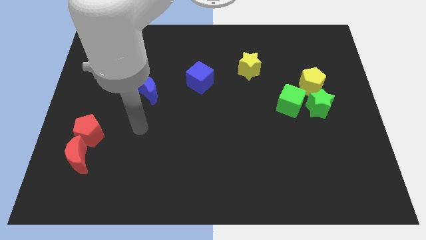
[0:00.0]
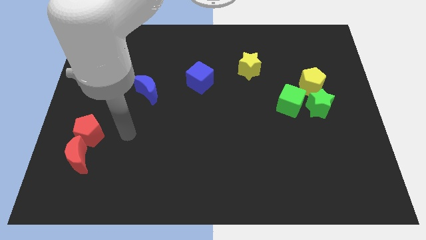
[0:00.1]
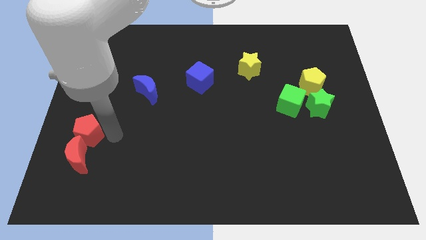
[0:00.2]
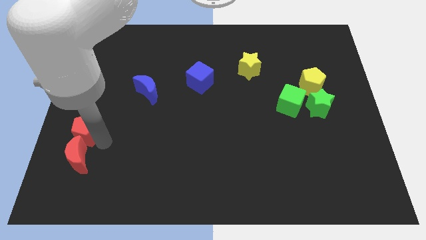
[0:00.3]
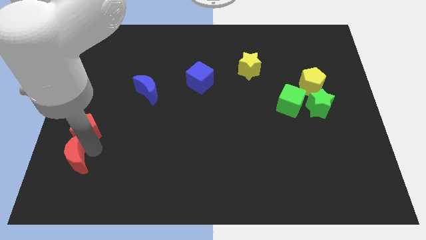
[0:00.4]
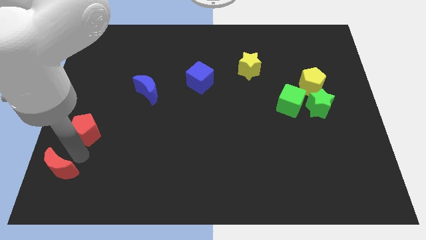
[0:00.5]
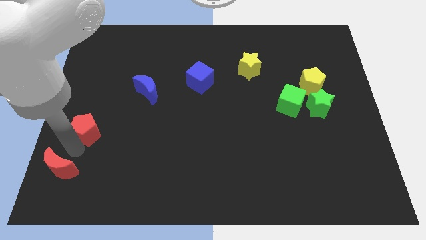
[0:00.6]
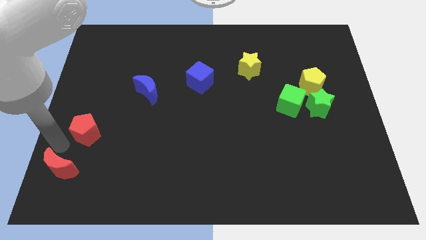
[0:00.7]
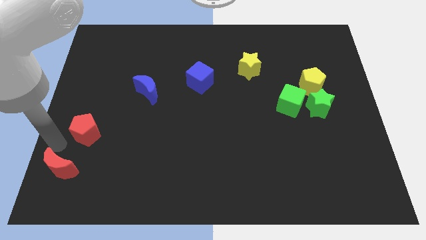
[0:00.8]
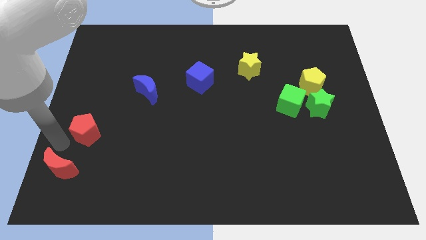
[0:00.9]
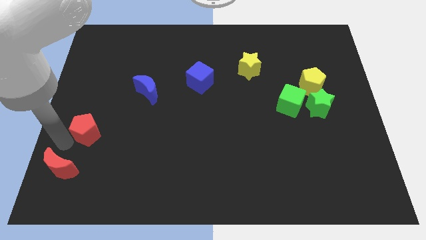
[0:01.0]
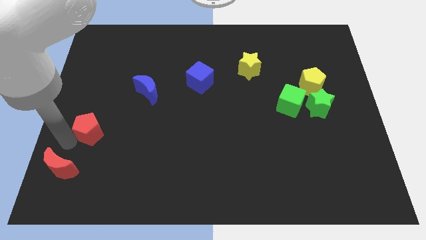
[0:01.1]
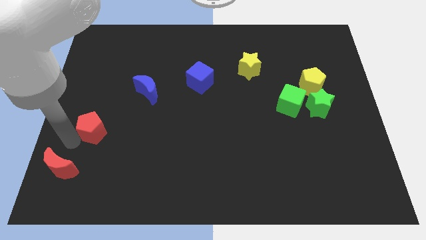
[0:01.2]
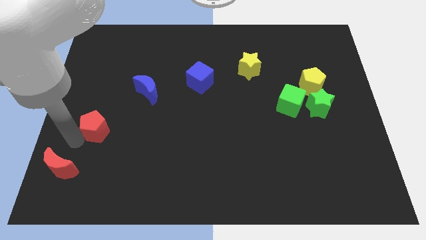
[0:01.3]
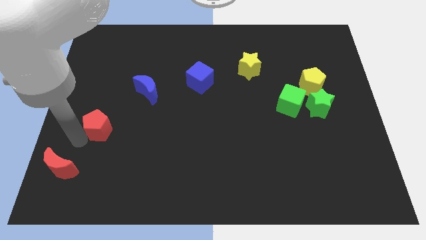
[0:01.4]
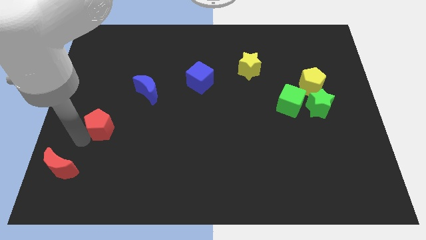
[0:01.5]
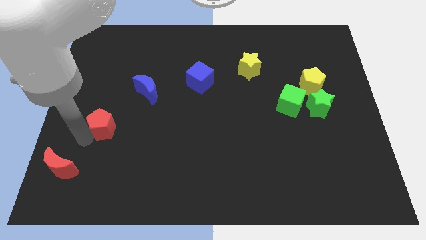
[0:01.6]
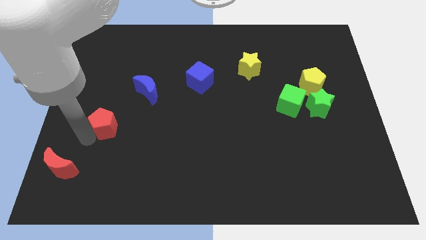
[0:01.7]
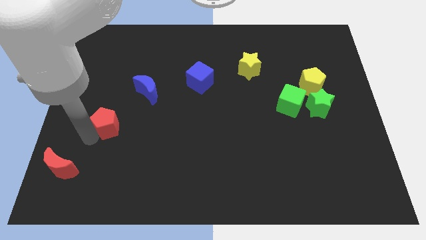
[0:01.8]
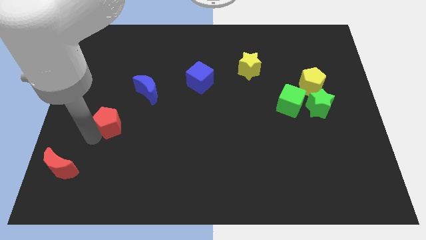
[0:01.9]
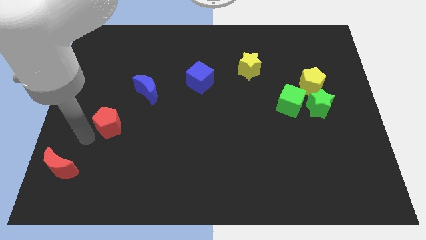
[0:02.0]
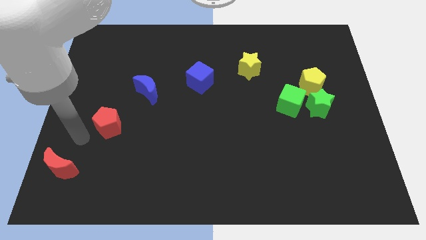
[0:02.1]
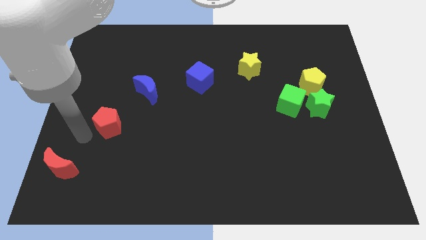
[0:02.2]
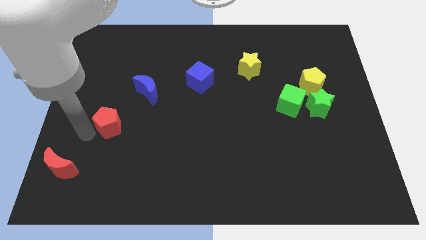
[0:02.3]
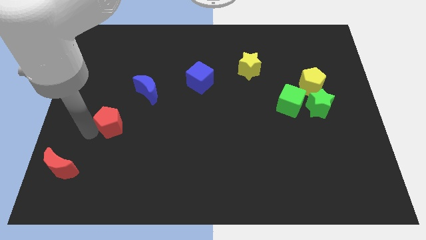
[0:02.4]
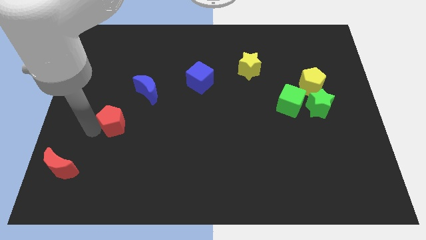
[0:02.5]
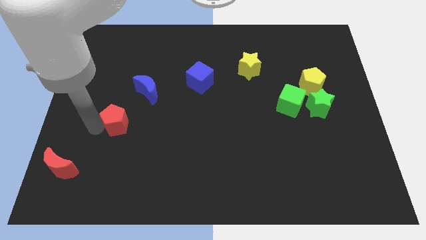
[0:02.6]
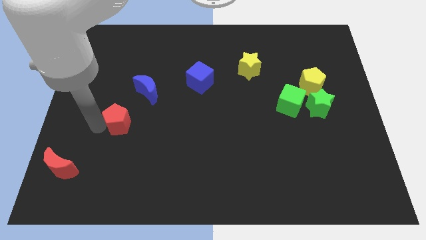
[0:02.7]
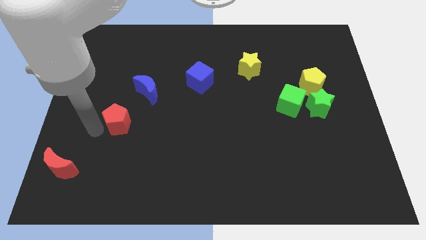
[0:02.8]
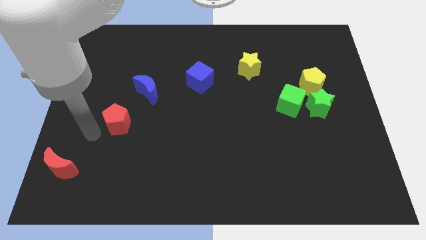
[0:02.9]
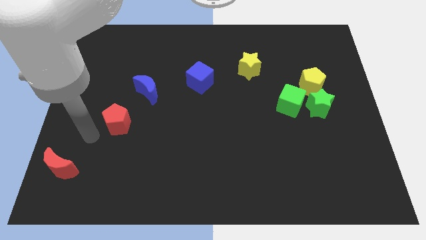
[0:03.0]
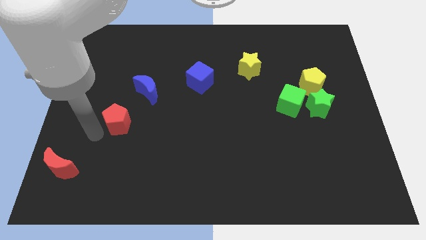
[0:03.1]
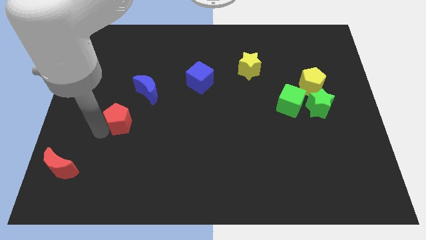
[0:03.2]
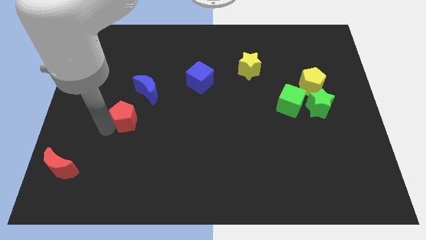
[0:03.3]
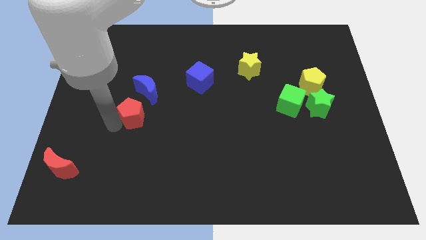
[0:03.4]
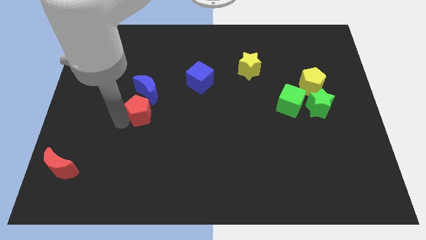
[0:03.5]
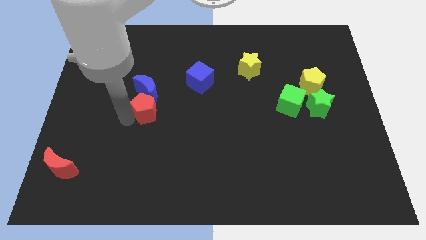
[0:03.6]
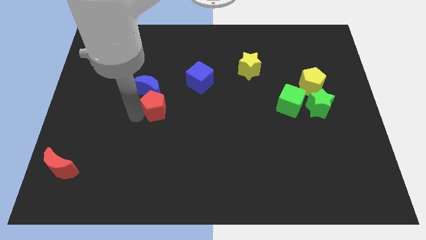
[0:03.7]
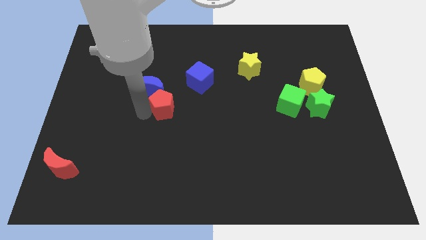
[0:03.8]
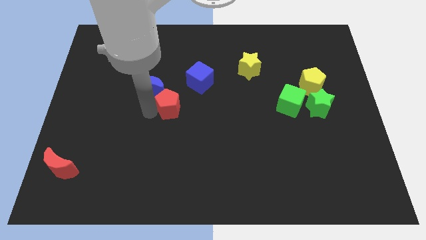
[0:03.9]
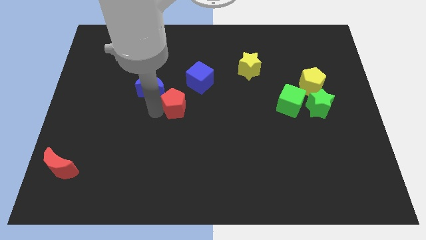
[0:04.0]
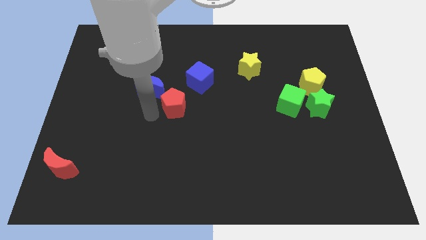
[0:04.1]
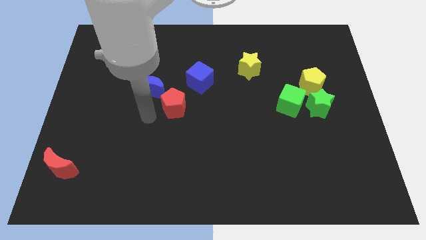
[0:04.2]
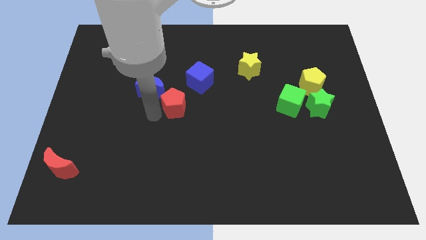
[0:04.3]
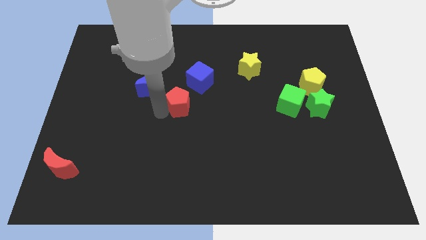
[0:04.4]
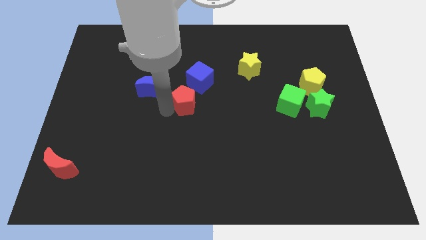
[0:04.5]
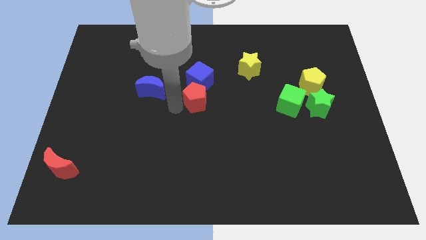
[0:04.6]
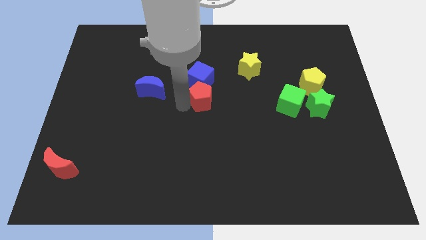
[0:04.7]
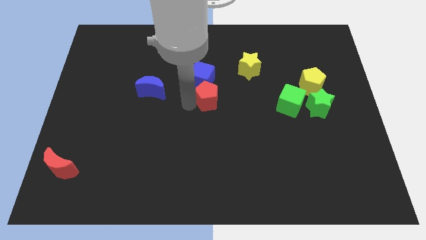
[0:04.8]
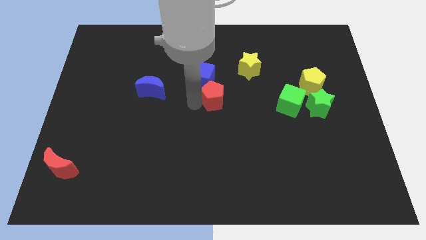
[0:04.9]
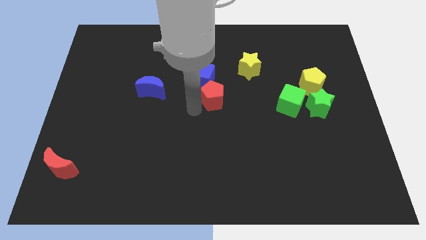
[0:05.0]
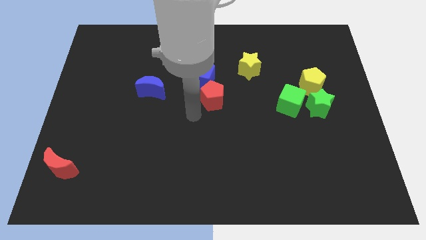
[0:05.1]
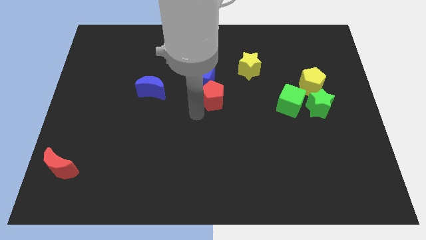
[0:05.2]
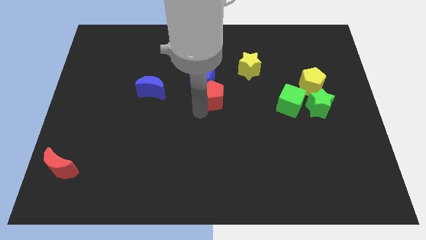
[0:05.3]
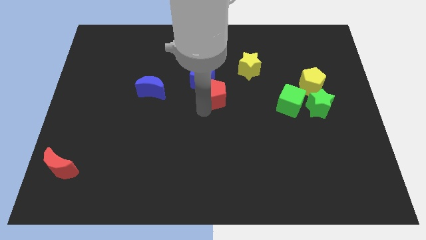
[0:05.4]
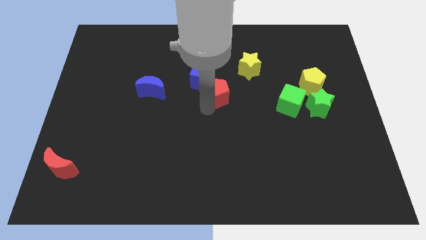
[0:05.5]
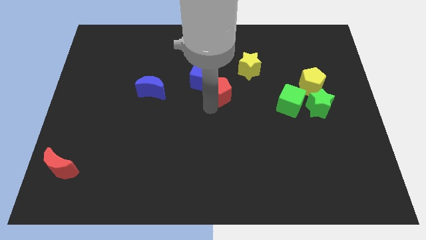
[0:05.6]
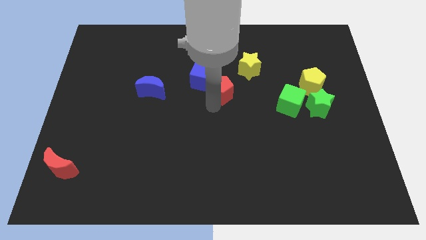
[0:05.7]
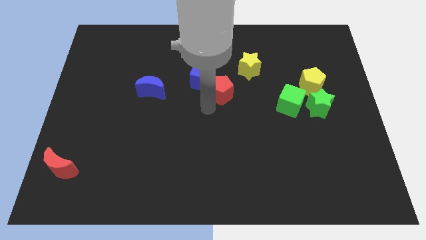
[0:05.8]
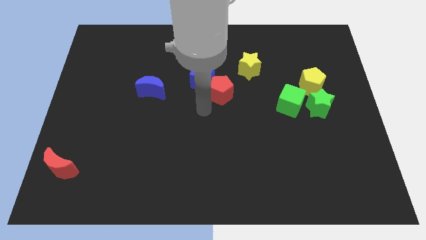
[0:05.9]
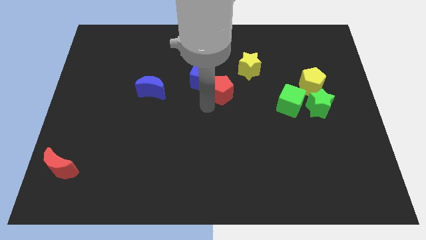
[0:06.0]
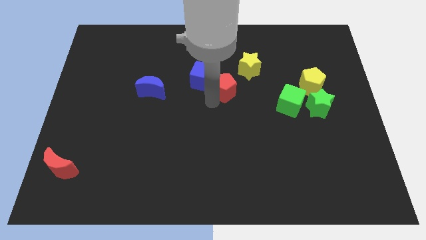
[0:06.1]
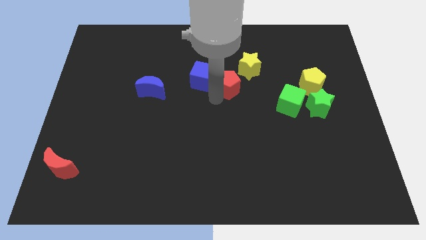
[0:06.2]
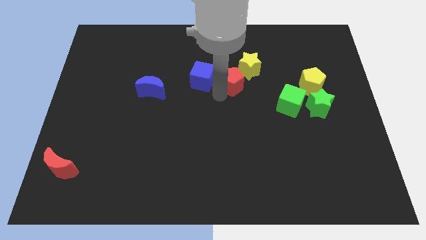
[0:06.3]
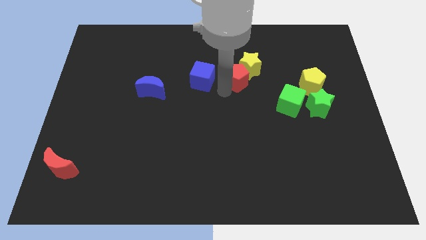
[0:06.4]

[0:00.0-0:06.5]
slide the red pentagon close to the yellow star
